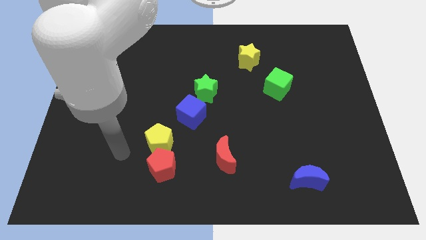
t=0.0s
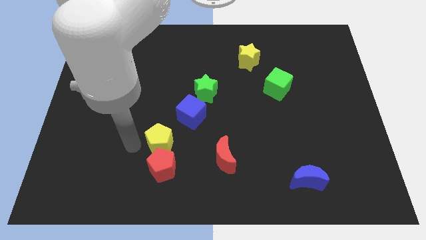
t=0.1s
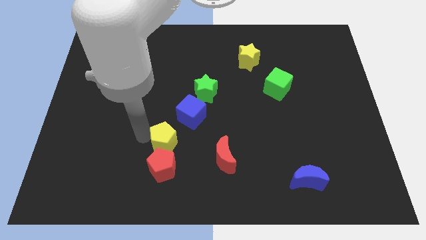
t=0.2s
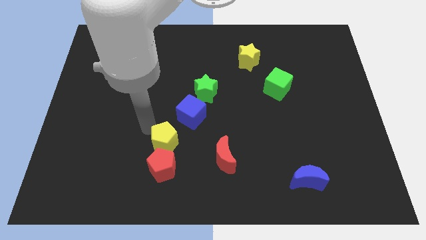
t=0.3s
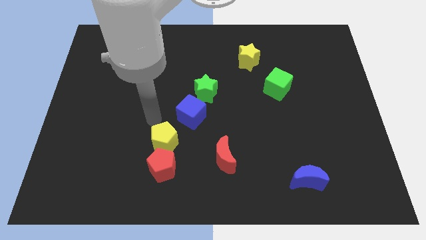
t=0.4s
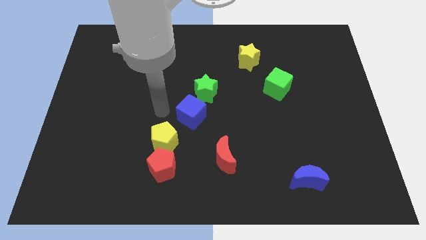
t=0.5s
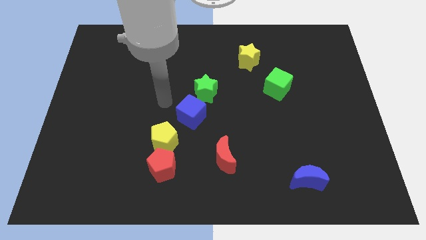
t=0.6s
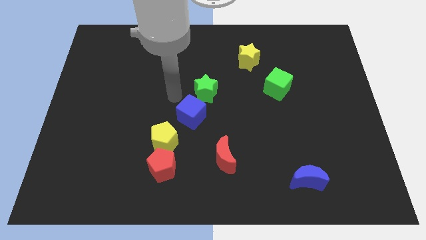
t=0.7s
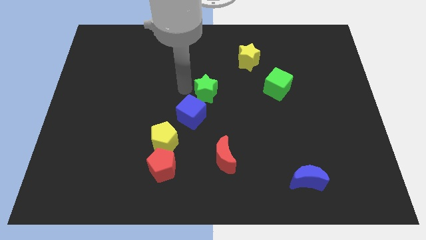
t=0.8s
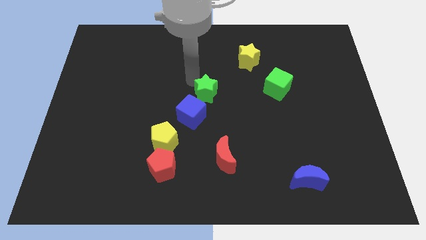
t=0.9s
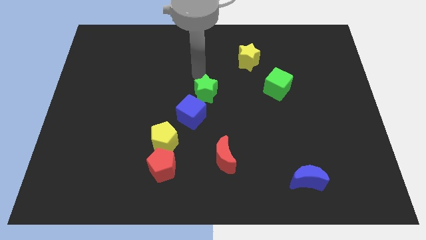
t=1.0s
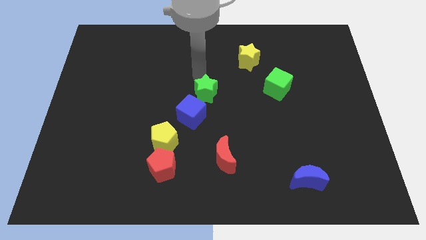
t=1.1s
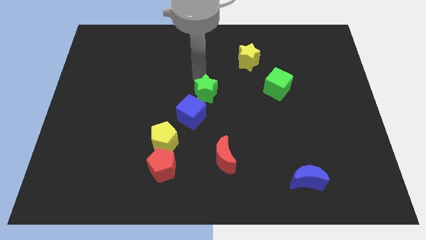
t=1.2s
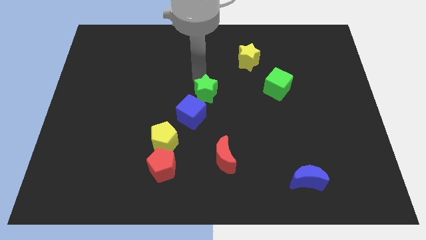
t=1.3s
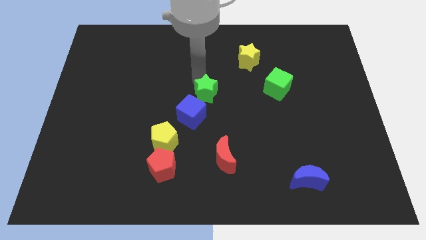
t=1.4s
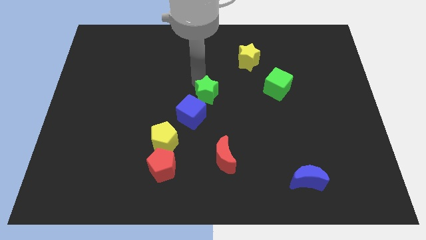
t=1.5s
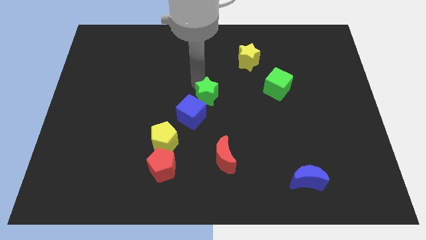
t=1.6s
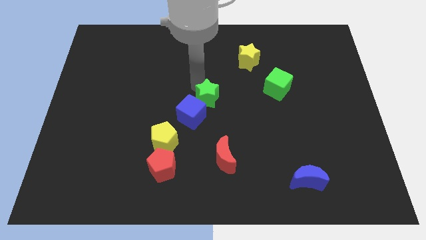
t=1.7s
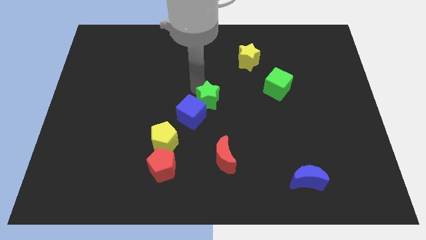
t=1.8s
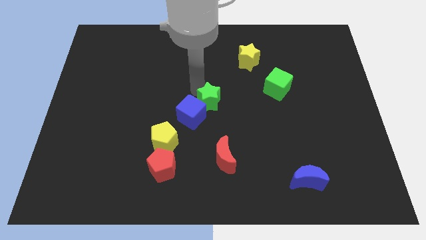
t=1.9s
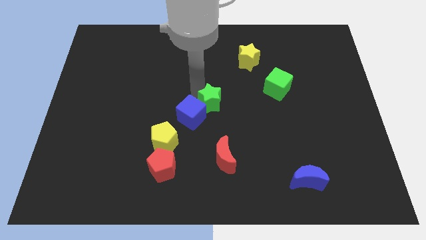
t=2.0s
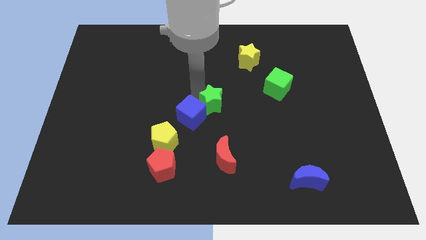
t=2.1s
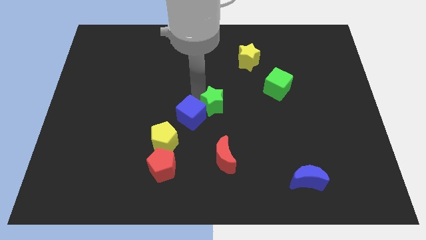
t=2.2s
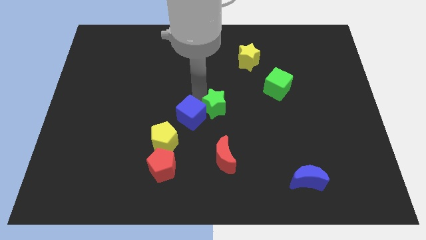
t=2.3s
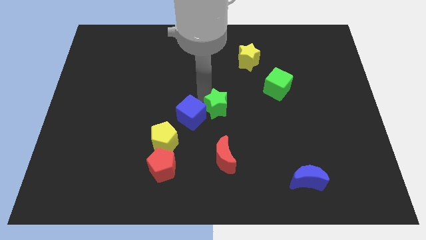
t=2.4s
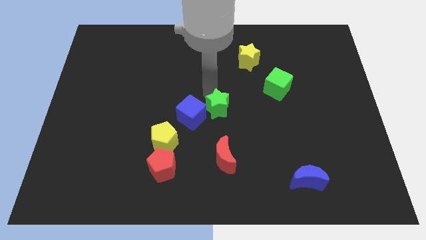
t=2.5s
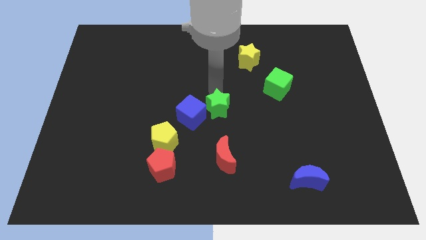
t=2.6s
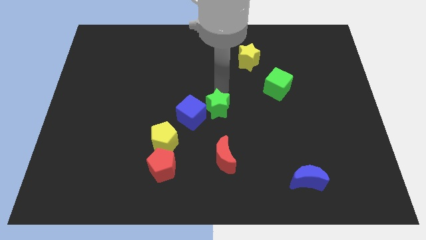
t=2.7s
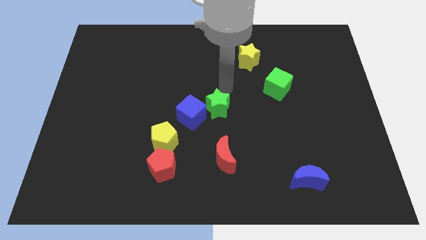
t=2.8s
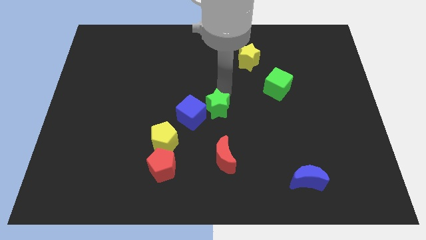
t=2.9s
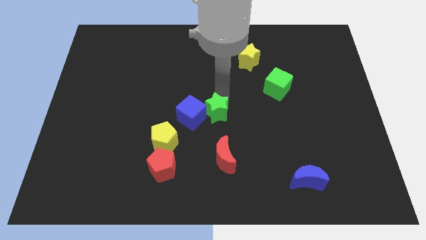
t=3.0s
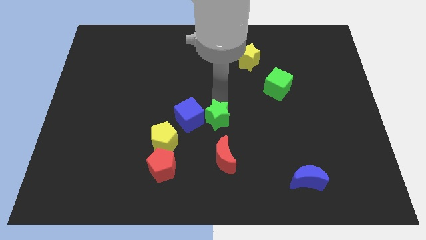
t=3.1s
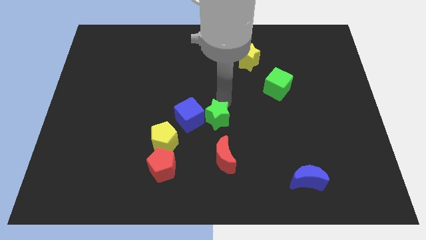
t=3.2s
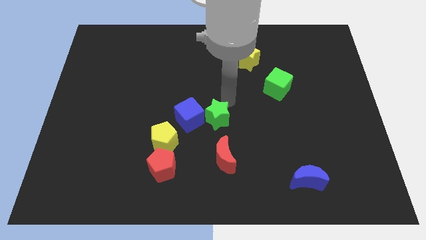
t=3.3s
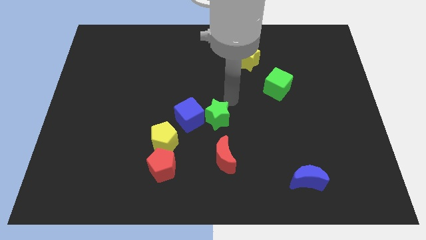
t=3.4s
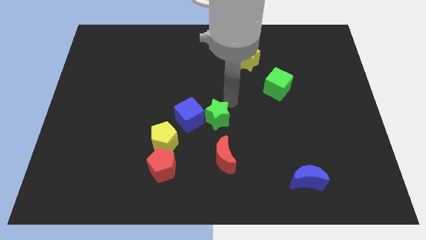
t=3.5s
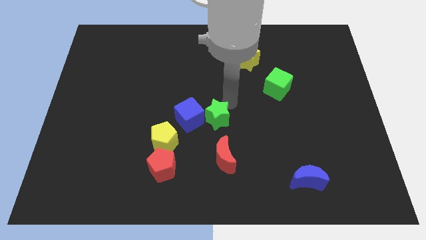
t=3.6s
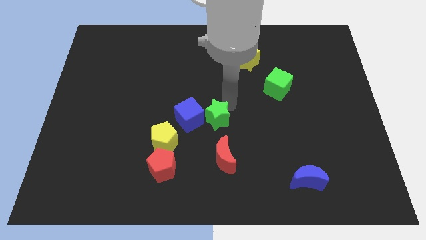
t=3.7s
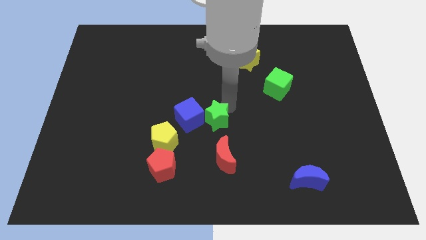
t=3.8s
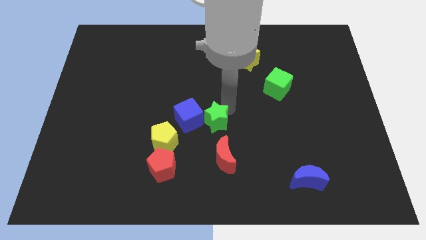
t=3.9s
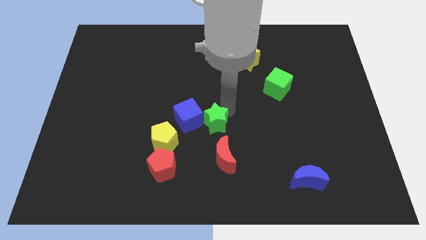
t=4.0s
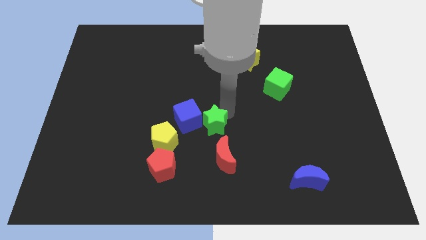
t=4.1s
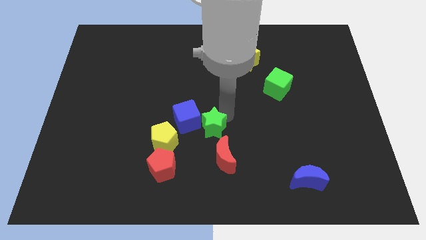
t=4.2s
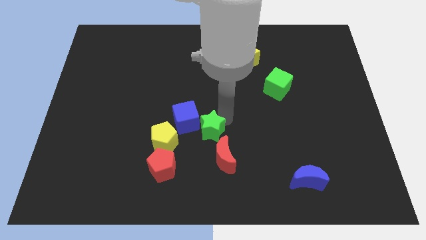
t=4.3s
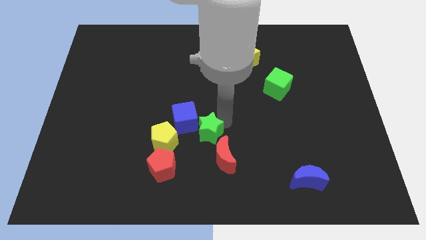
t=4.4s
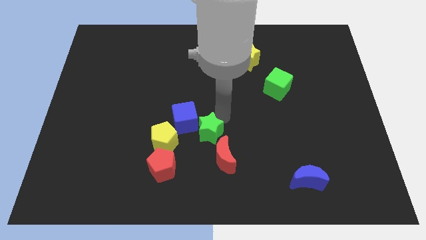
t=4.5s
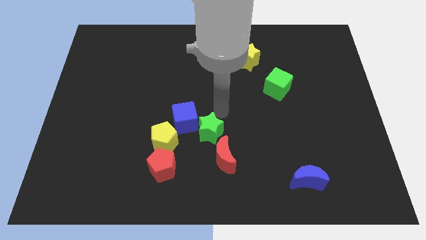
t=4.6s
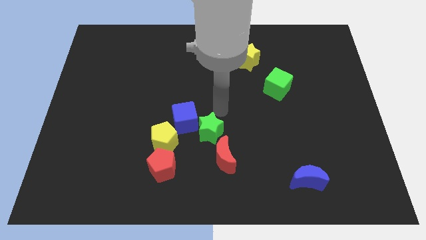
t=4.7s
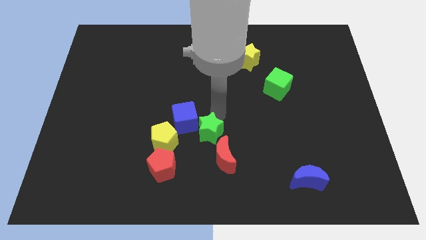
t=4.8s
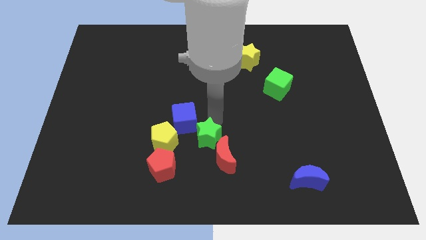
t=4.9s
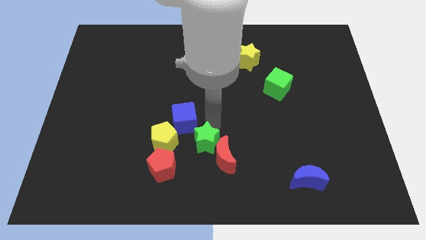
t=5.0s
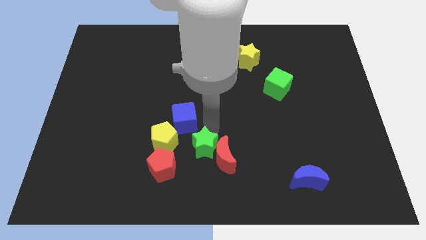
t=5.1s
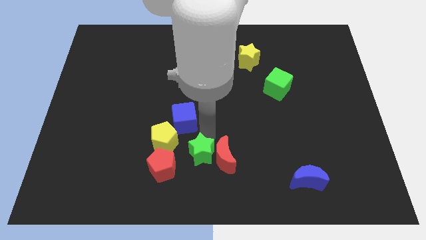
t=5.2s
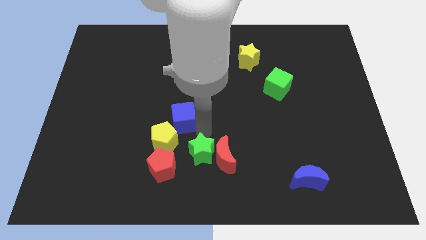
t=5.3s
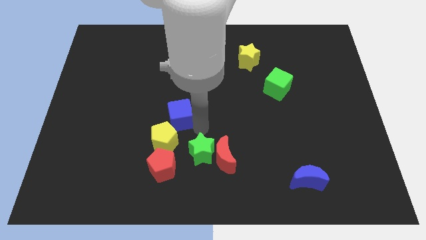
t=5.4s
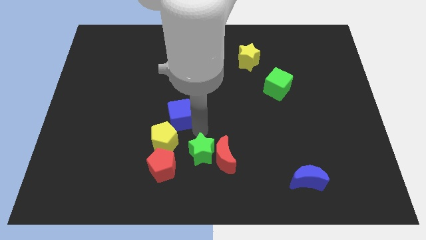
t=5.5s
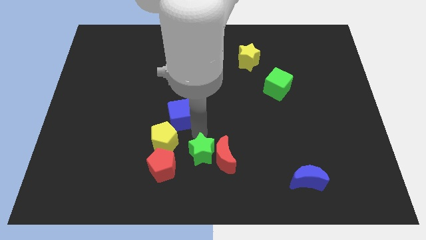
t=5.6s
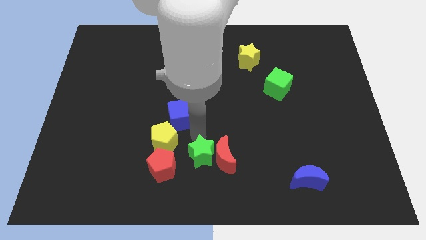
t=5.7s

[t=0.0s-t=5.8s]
push the green star to the bottom

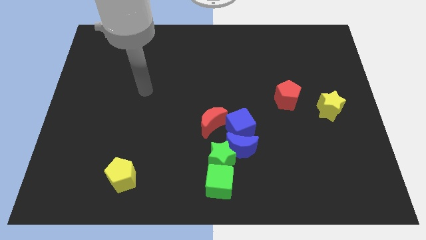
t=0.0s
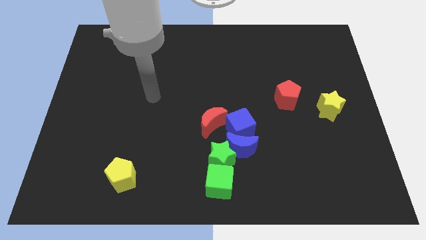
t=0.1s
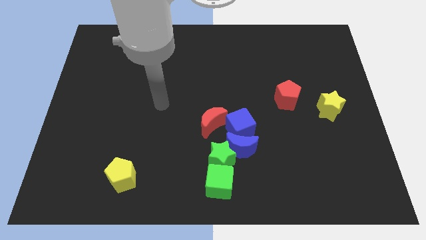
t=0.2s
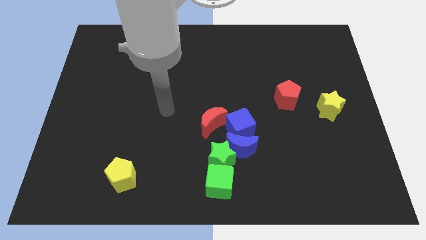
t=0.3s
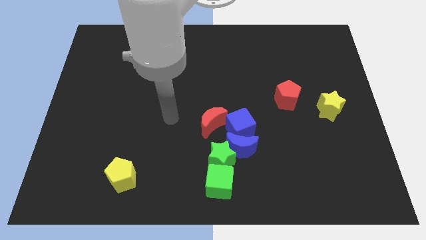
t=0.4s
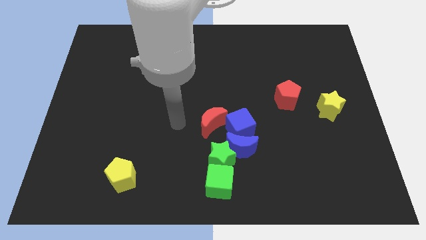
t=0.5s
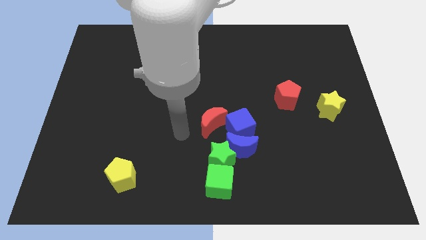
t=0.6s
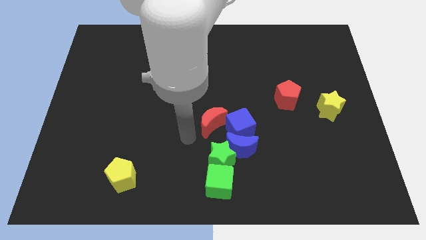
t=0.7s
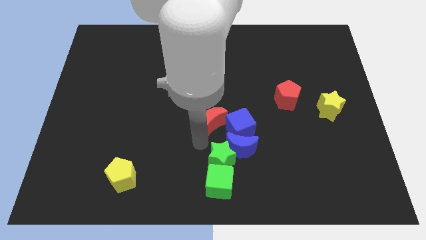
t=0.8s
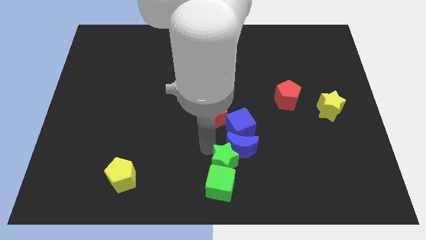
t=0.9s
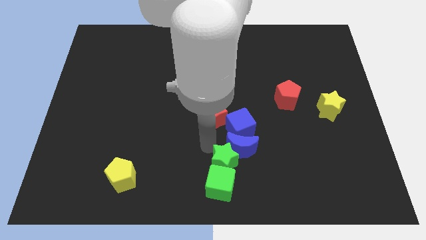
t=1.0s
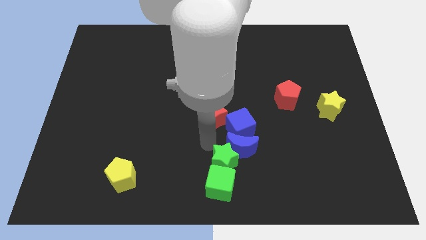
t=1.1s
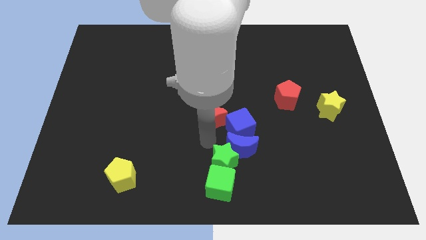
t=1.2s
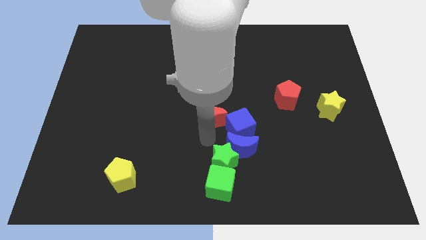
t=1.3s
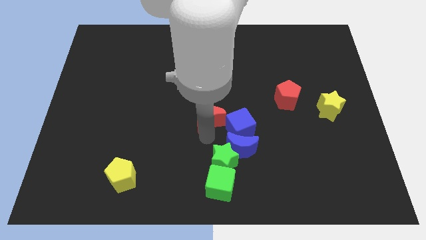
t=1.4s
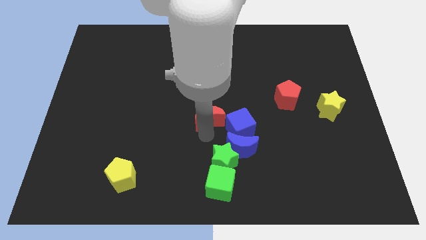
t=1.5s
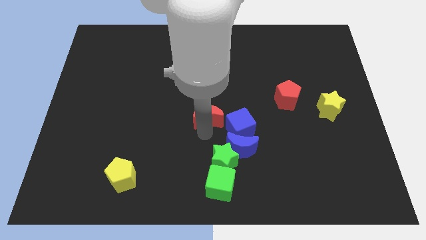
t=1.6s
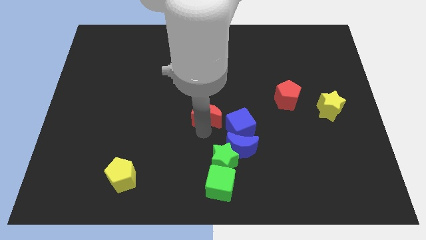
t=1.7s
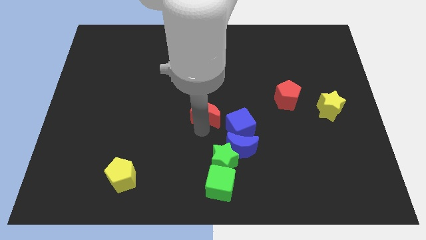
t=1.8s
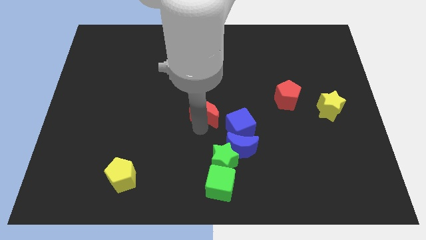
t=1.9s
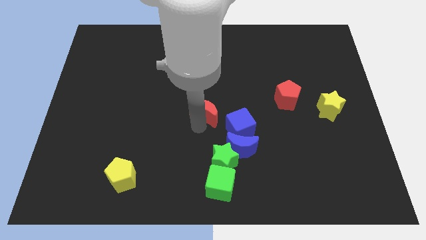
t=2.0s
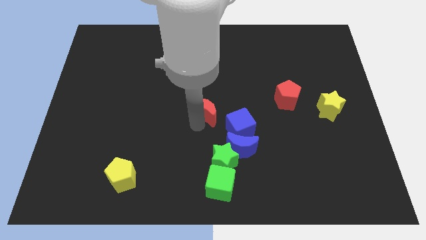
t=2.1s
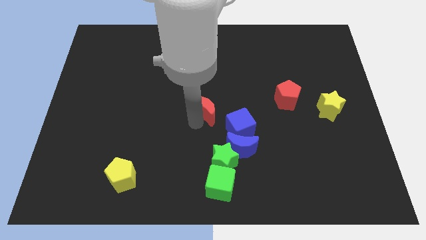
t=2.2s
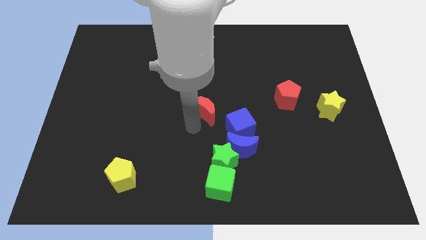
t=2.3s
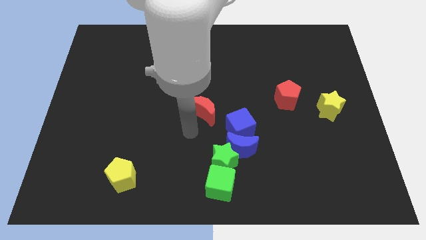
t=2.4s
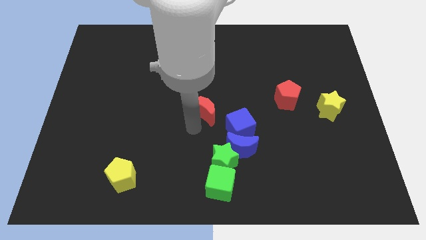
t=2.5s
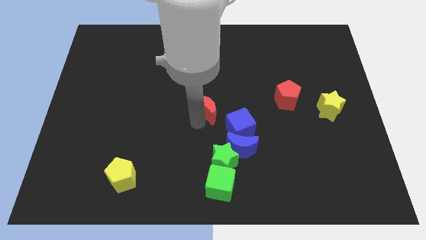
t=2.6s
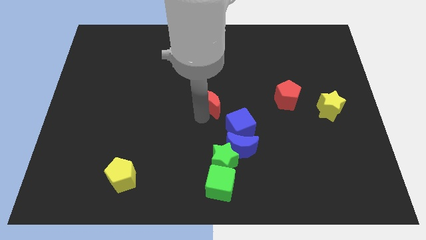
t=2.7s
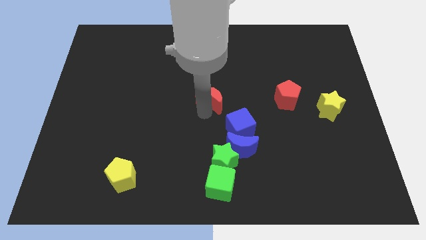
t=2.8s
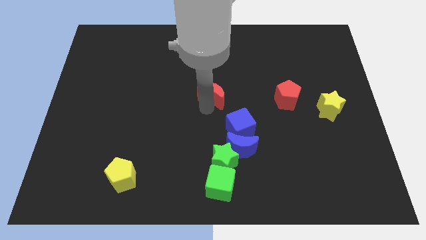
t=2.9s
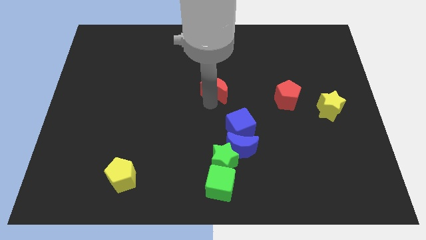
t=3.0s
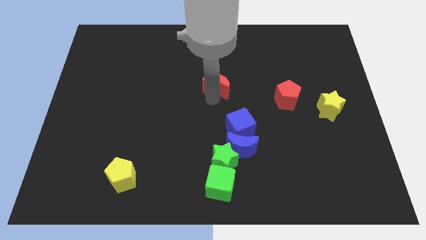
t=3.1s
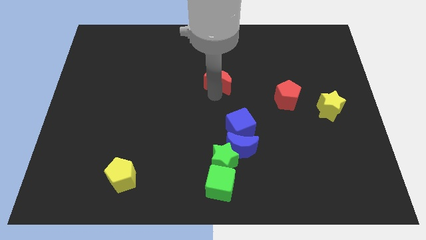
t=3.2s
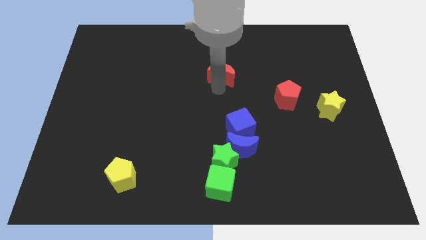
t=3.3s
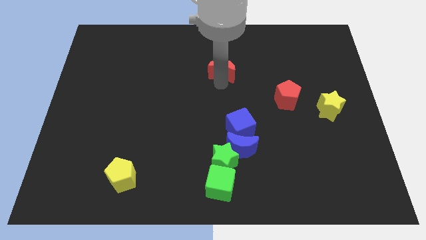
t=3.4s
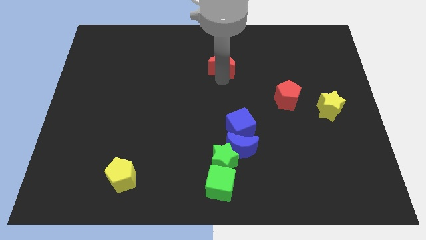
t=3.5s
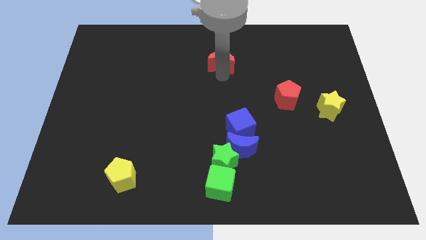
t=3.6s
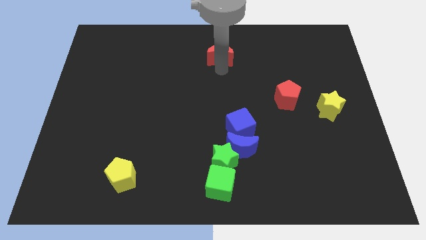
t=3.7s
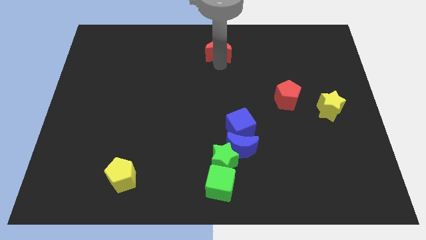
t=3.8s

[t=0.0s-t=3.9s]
put the red moon to the top side
